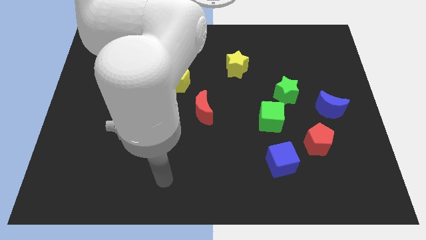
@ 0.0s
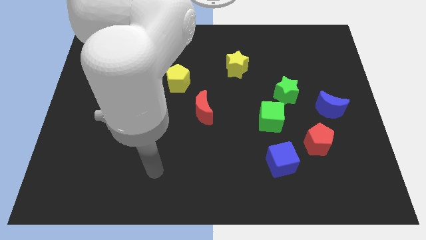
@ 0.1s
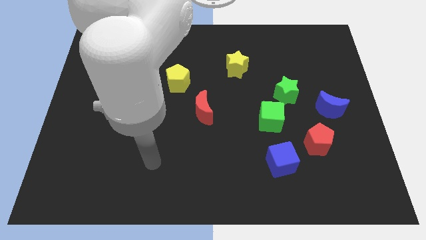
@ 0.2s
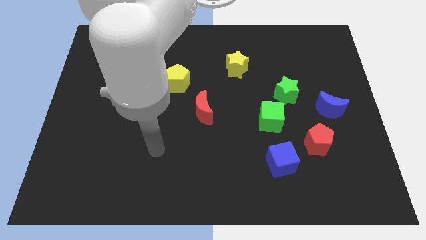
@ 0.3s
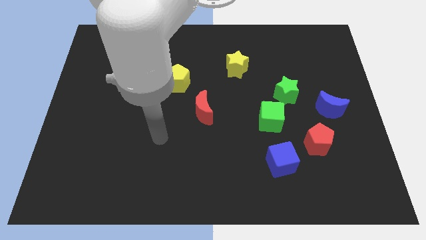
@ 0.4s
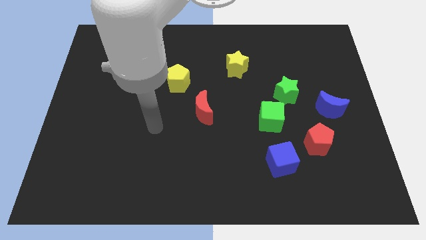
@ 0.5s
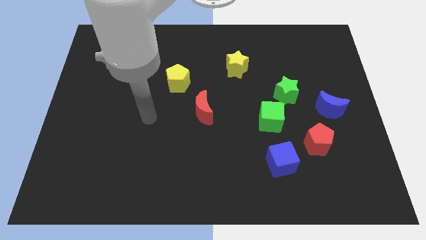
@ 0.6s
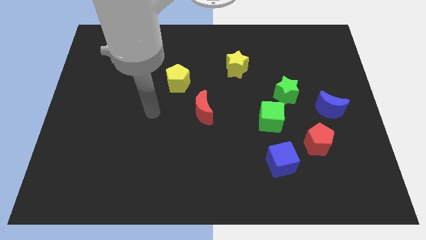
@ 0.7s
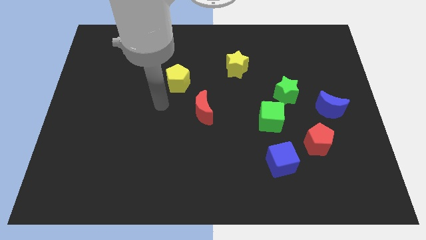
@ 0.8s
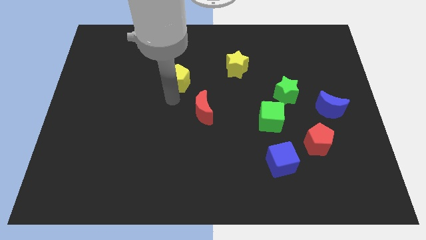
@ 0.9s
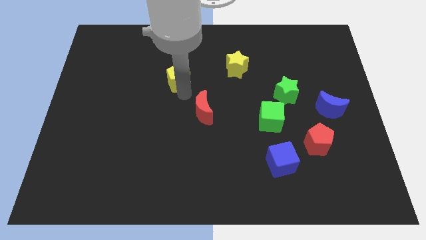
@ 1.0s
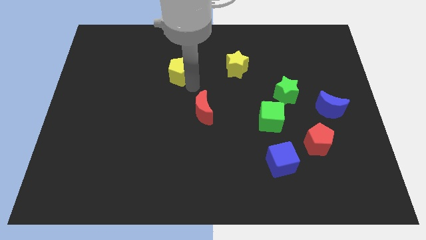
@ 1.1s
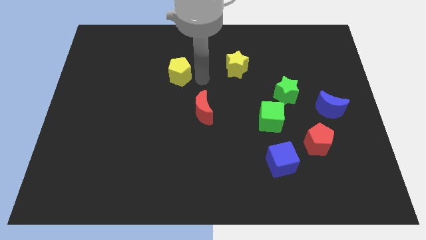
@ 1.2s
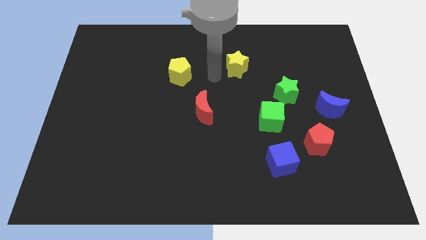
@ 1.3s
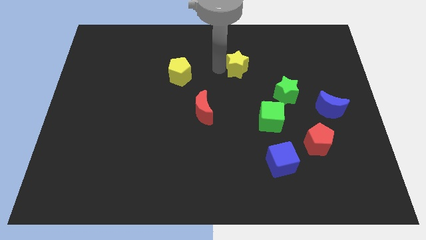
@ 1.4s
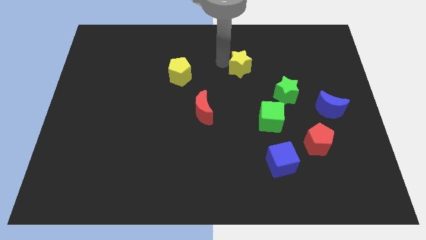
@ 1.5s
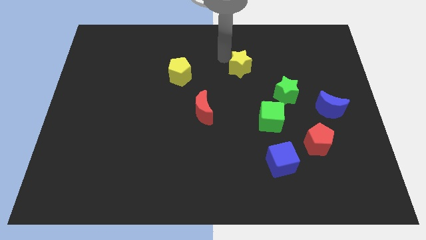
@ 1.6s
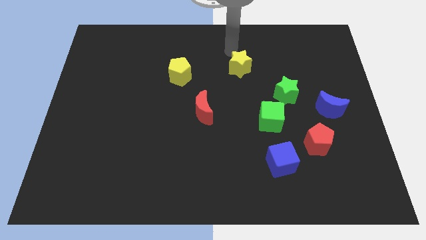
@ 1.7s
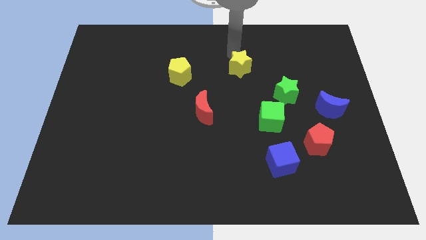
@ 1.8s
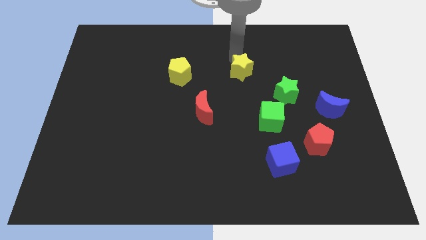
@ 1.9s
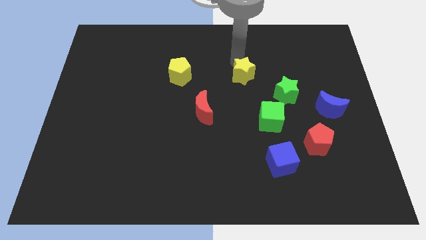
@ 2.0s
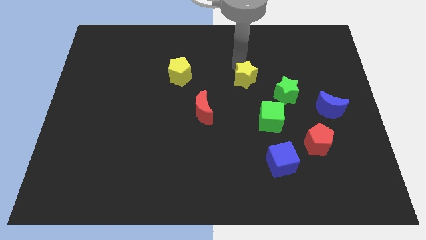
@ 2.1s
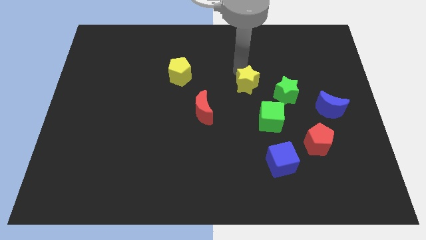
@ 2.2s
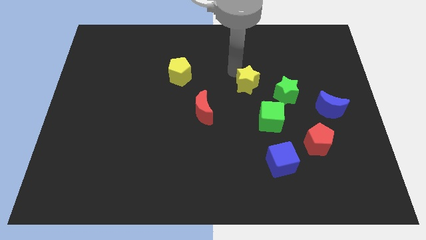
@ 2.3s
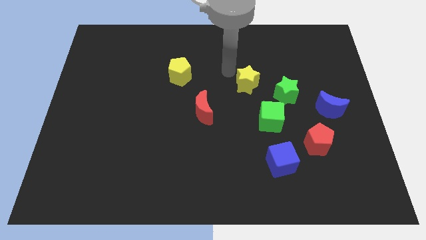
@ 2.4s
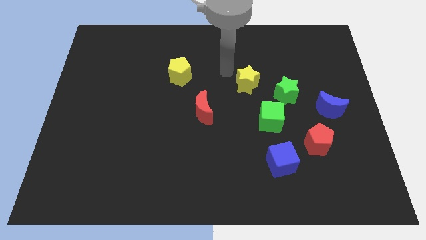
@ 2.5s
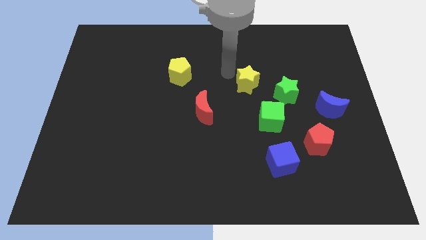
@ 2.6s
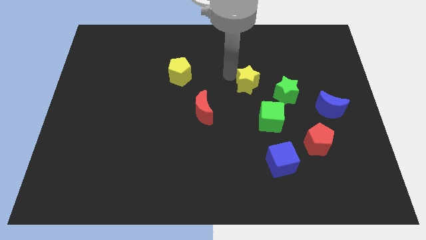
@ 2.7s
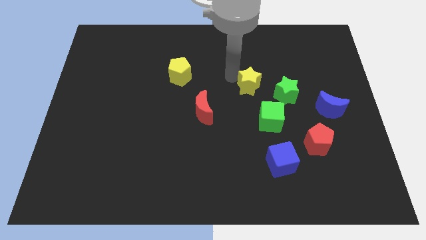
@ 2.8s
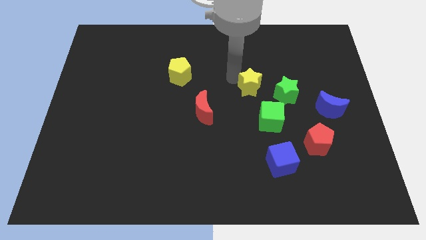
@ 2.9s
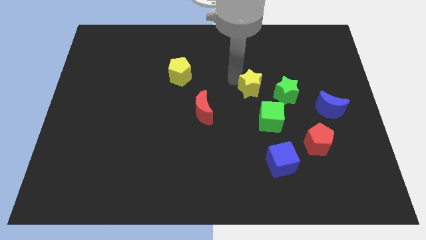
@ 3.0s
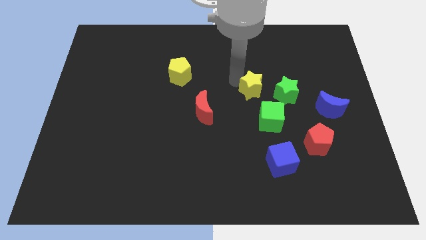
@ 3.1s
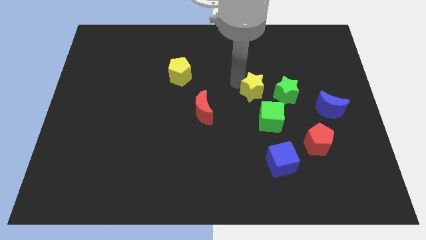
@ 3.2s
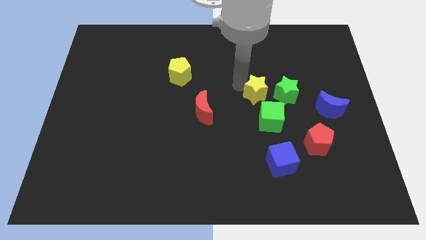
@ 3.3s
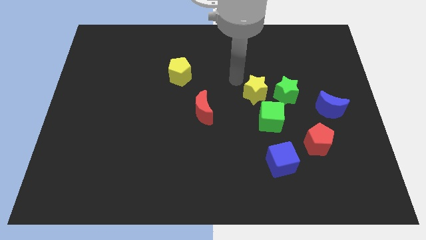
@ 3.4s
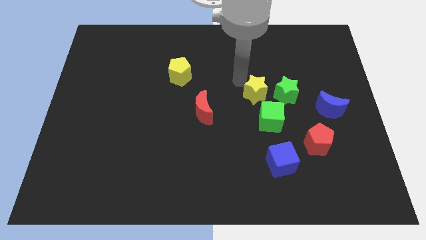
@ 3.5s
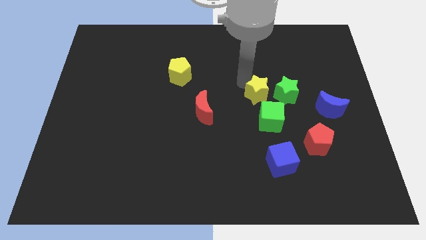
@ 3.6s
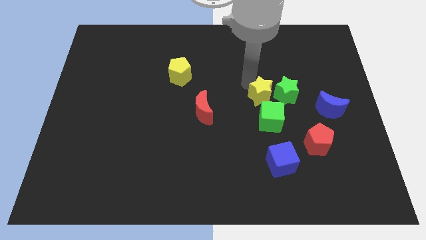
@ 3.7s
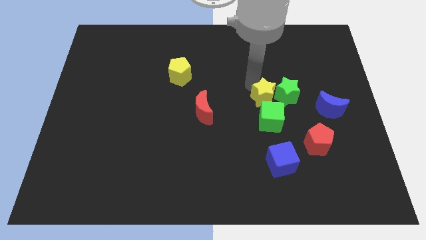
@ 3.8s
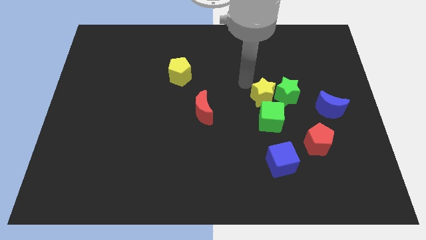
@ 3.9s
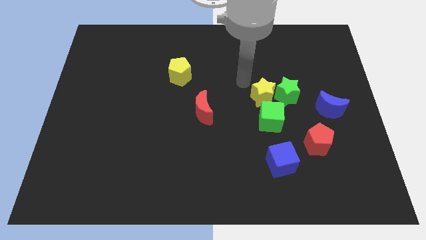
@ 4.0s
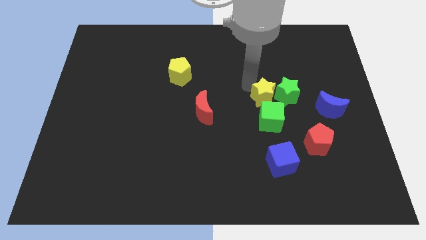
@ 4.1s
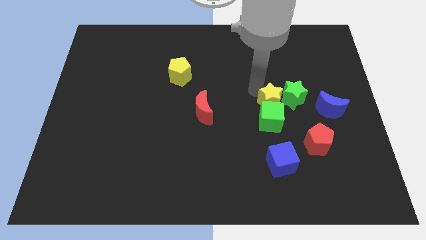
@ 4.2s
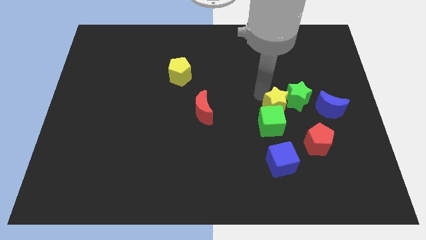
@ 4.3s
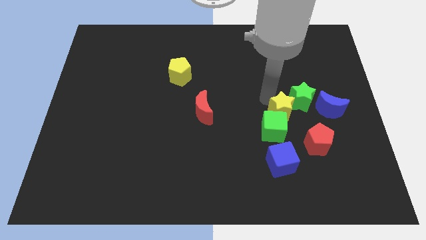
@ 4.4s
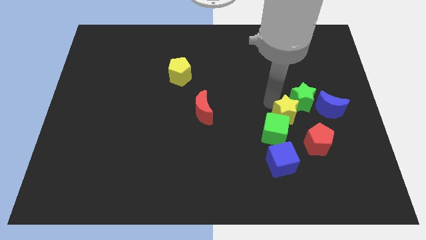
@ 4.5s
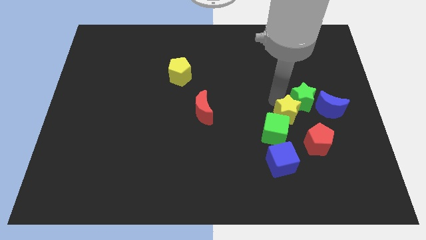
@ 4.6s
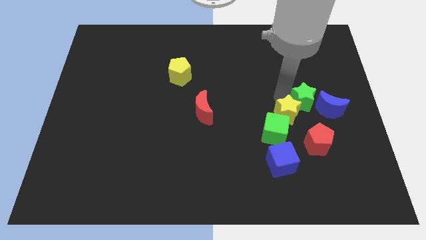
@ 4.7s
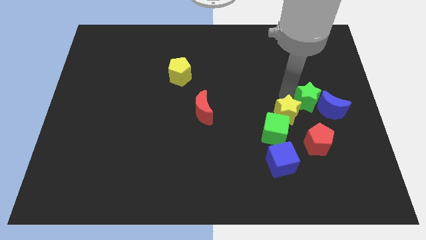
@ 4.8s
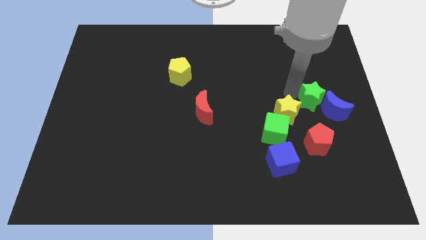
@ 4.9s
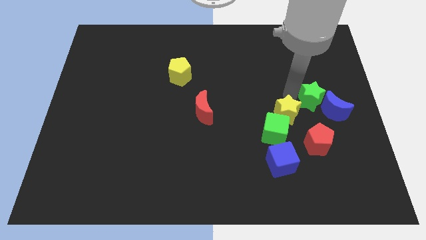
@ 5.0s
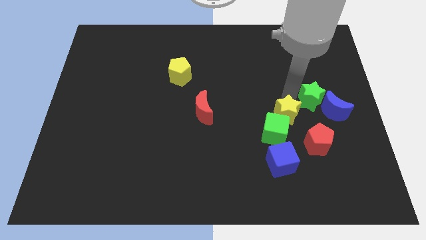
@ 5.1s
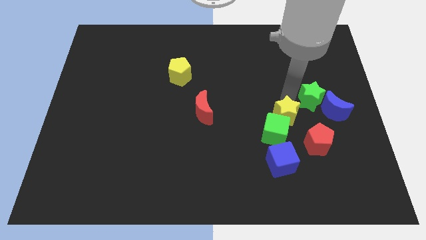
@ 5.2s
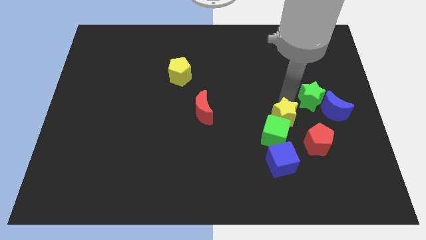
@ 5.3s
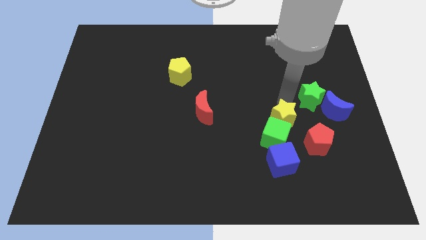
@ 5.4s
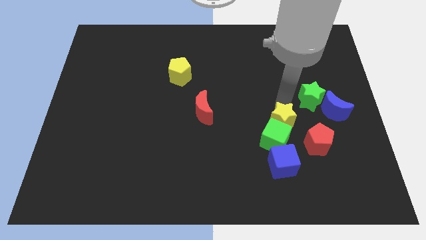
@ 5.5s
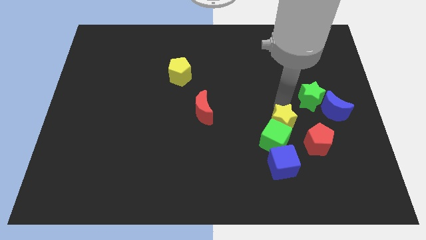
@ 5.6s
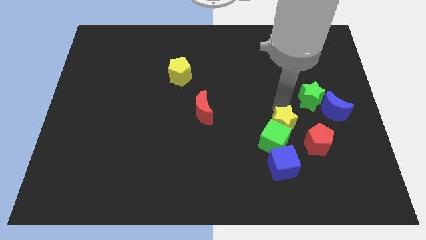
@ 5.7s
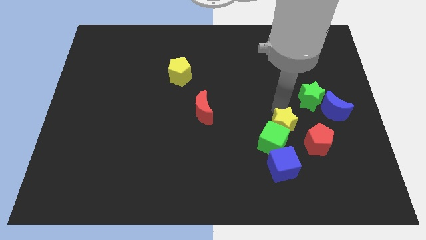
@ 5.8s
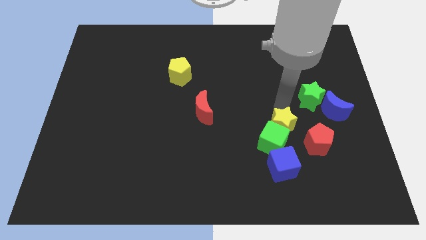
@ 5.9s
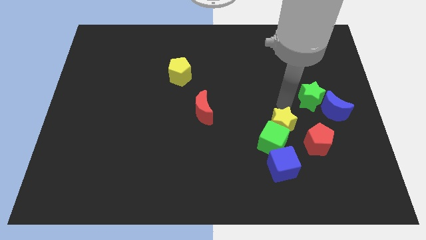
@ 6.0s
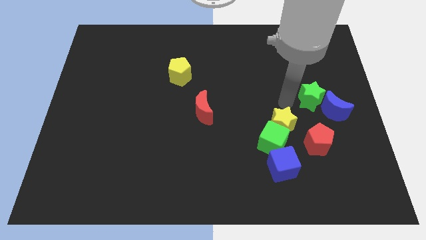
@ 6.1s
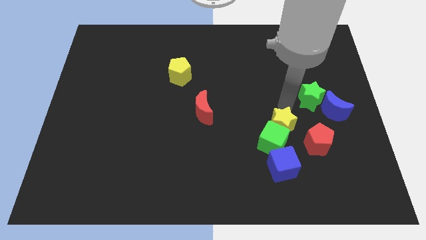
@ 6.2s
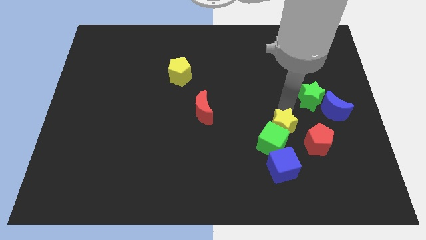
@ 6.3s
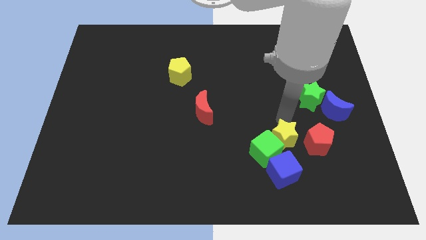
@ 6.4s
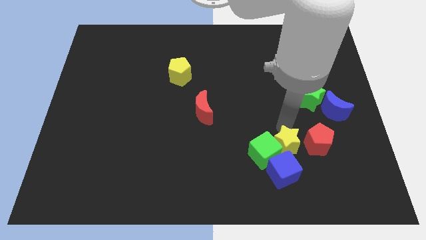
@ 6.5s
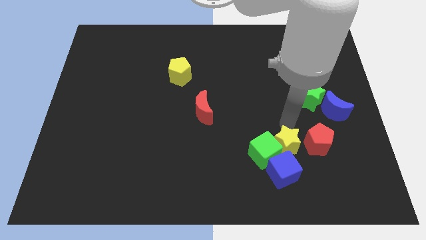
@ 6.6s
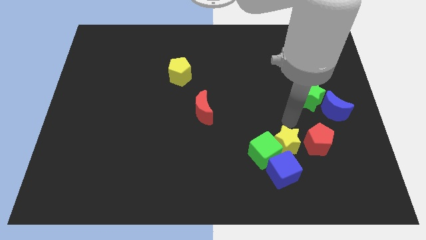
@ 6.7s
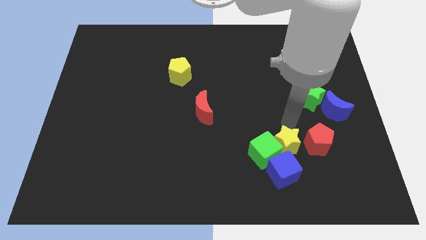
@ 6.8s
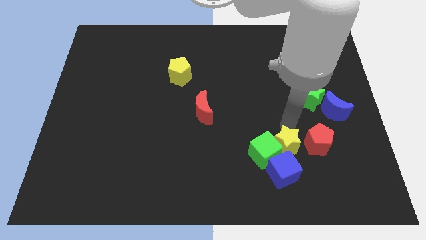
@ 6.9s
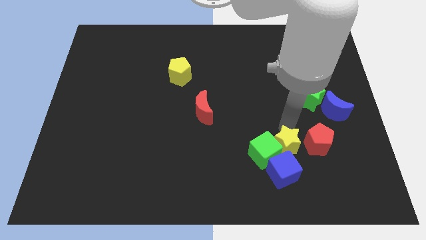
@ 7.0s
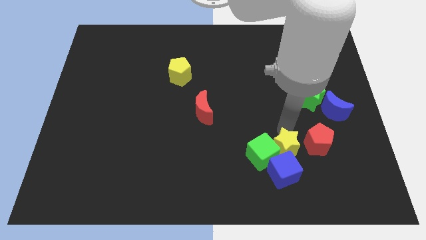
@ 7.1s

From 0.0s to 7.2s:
push the yellow star next to the blue cube
